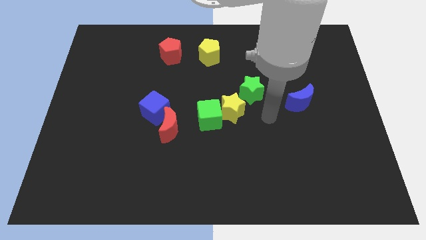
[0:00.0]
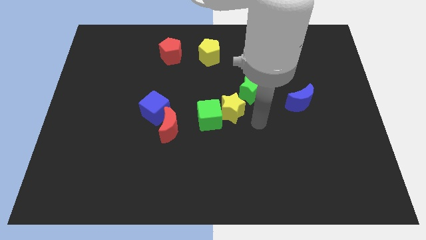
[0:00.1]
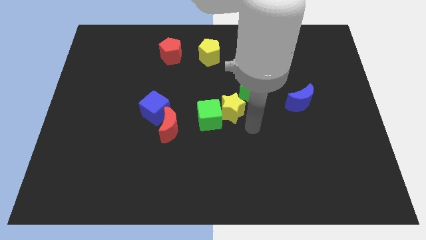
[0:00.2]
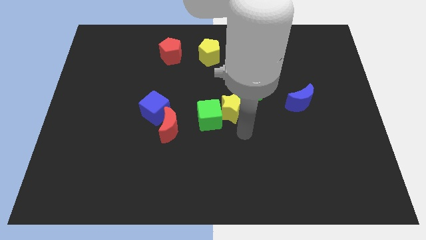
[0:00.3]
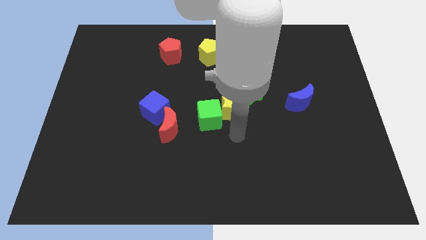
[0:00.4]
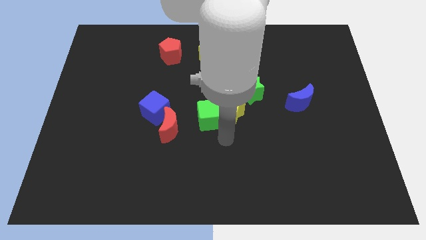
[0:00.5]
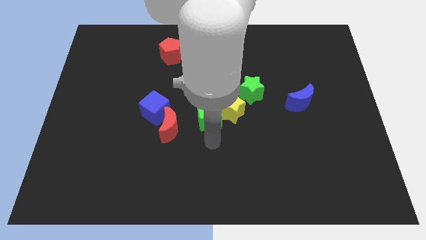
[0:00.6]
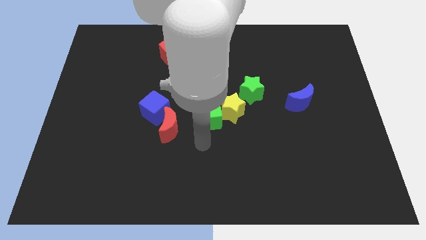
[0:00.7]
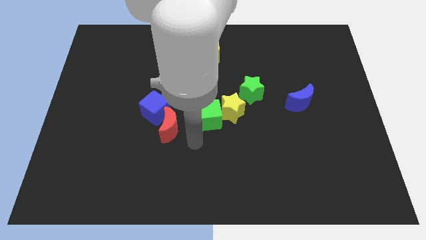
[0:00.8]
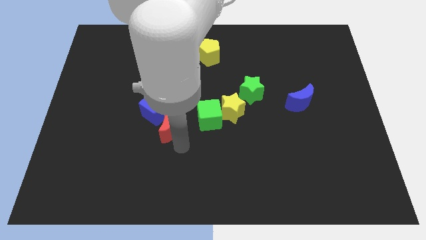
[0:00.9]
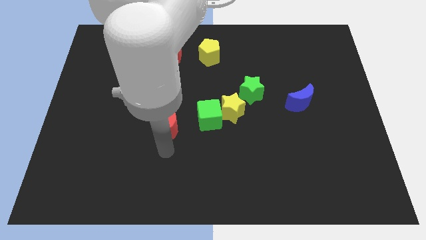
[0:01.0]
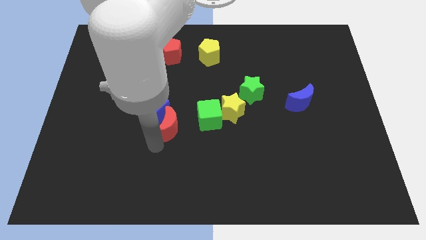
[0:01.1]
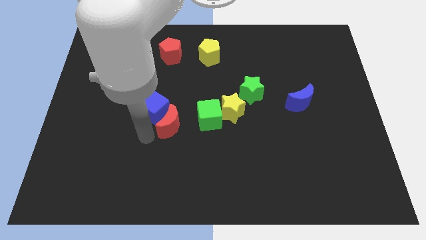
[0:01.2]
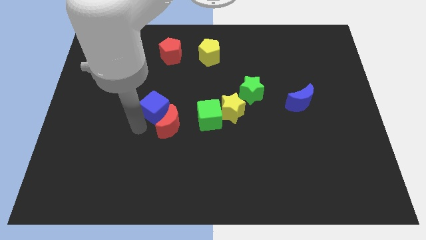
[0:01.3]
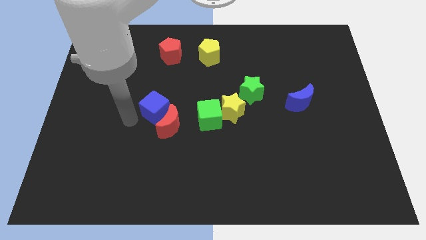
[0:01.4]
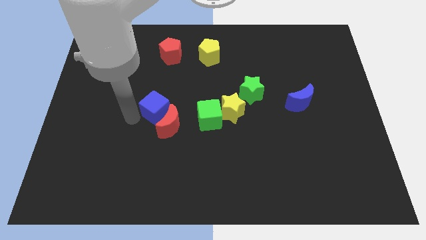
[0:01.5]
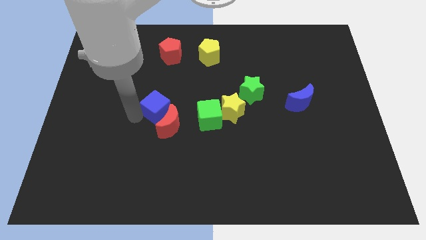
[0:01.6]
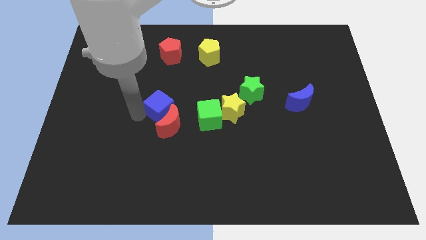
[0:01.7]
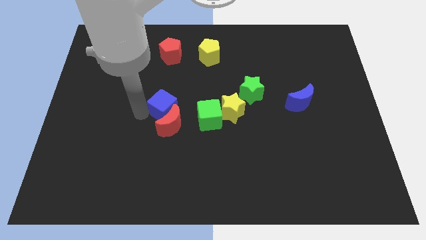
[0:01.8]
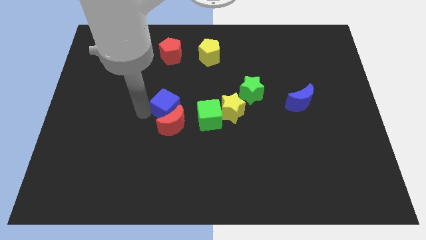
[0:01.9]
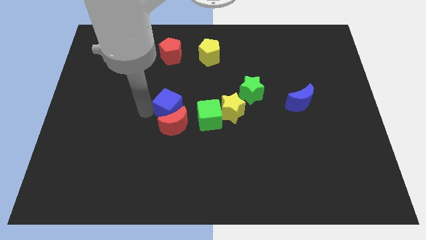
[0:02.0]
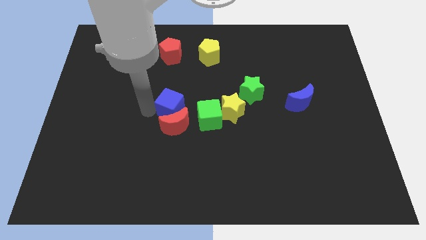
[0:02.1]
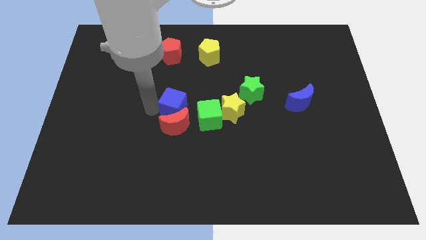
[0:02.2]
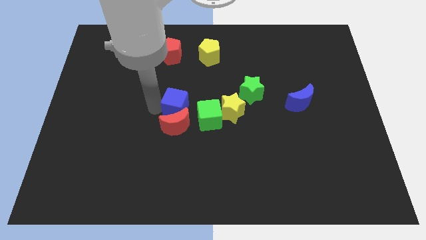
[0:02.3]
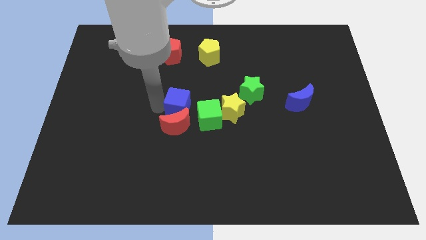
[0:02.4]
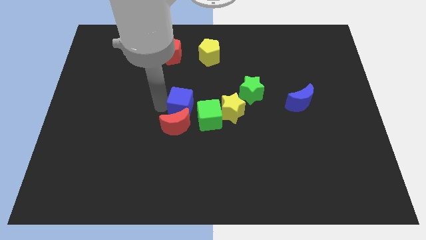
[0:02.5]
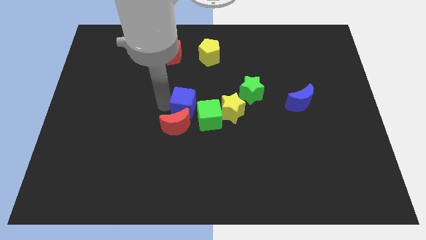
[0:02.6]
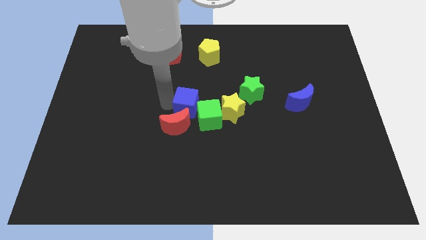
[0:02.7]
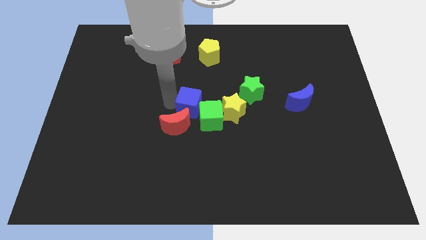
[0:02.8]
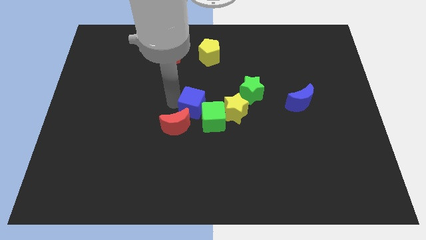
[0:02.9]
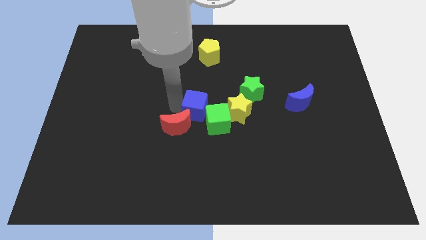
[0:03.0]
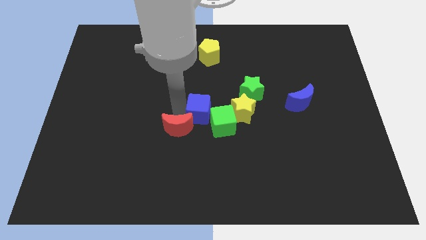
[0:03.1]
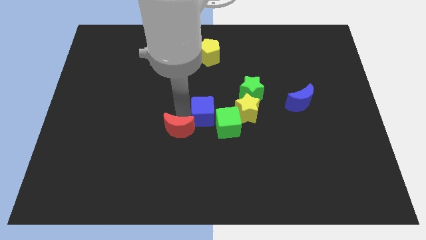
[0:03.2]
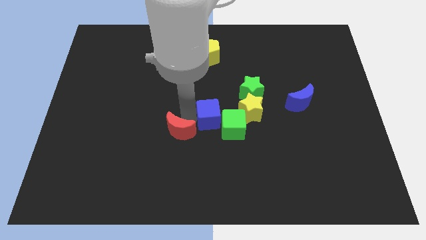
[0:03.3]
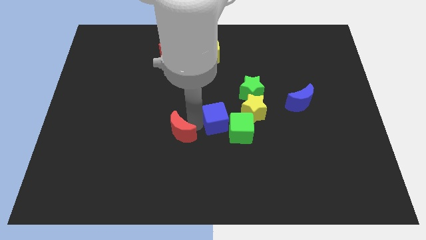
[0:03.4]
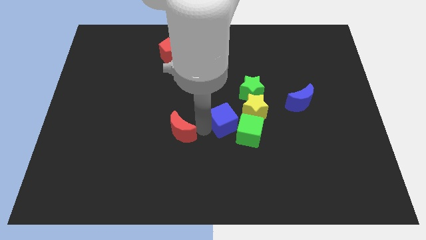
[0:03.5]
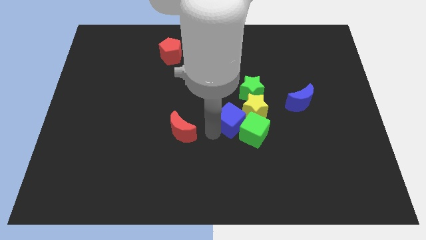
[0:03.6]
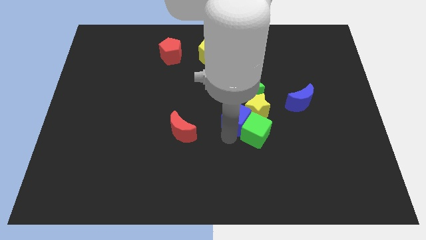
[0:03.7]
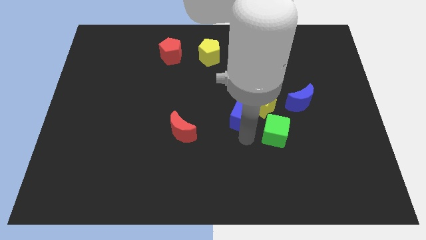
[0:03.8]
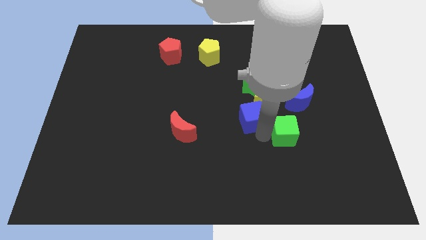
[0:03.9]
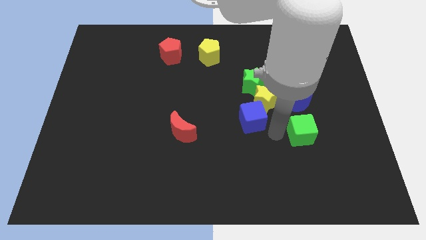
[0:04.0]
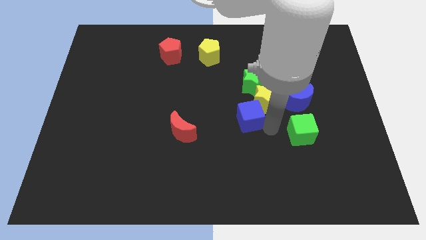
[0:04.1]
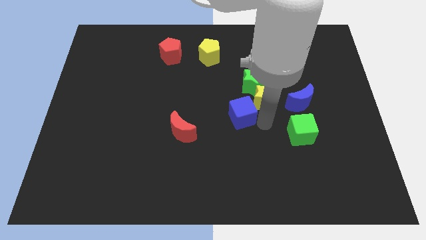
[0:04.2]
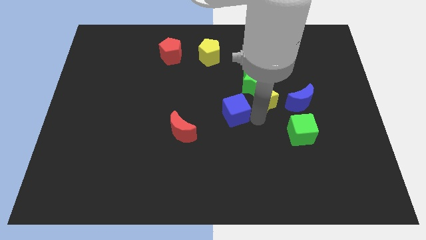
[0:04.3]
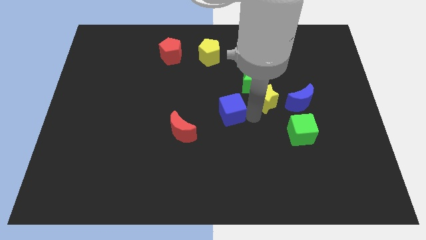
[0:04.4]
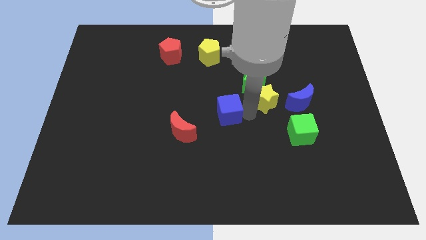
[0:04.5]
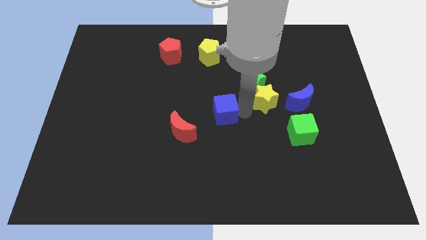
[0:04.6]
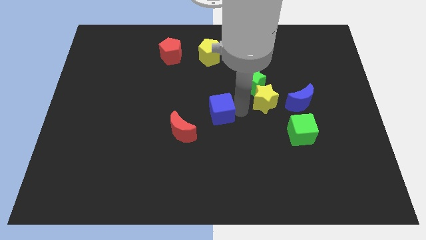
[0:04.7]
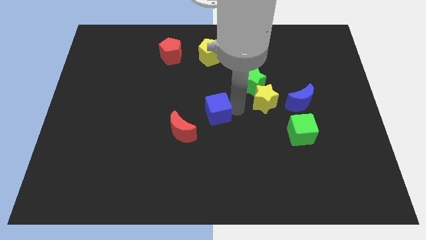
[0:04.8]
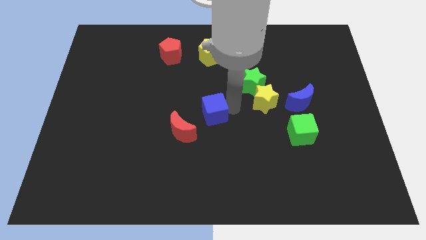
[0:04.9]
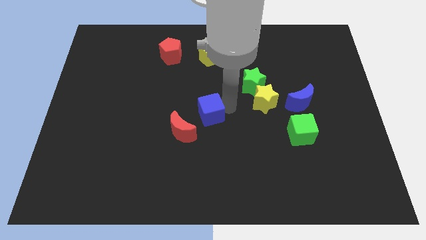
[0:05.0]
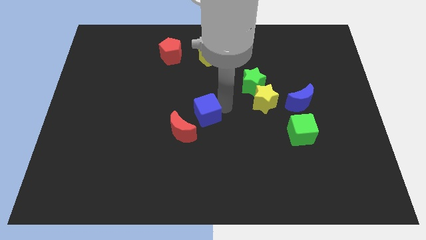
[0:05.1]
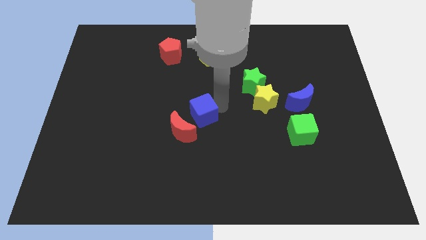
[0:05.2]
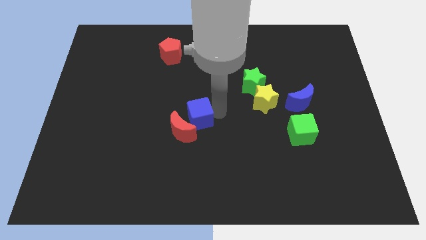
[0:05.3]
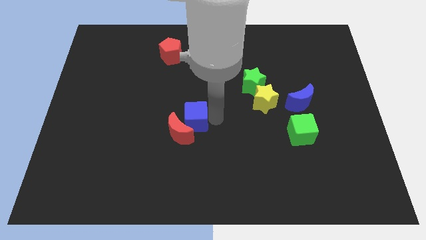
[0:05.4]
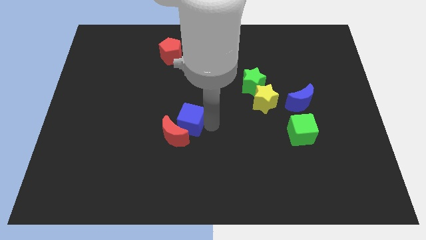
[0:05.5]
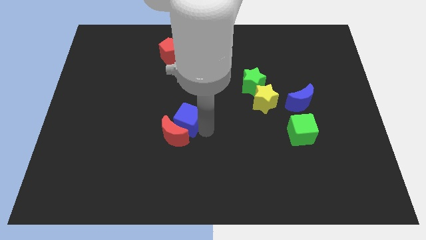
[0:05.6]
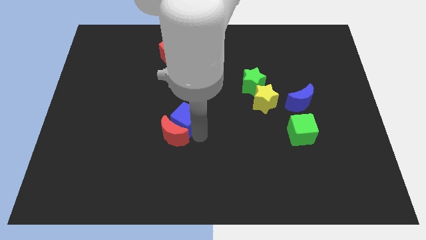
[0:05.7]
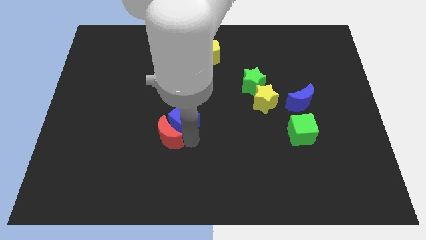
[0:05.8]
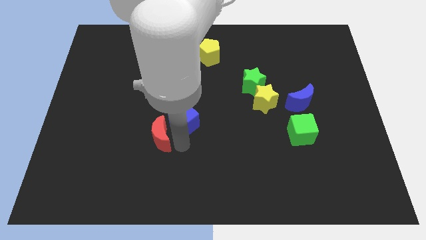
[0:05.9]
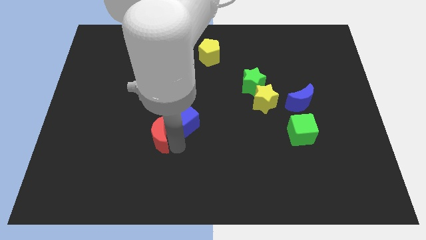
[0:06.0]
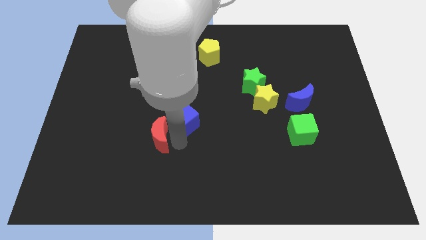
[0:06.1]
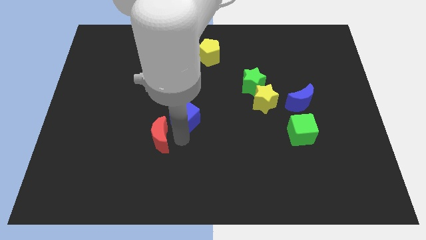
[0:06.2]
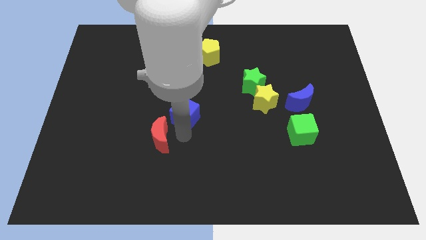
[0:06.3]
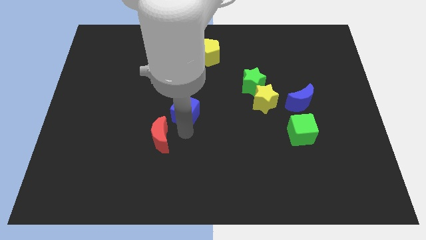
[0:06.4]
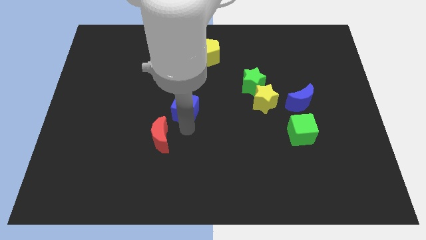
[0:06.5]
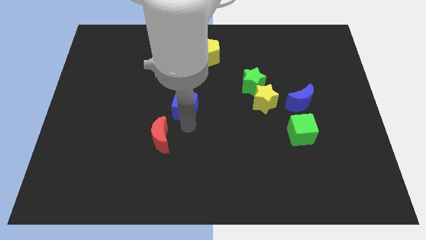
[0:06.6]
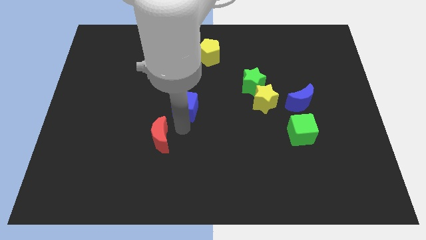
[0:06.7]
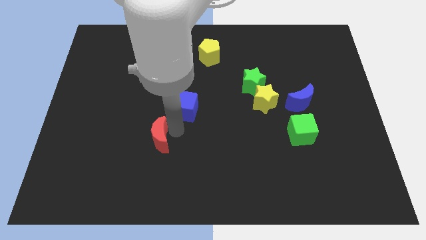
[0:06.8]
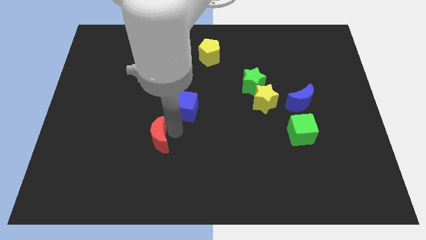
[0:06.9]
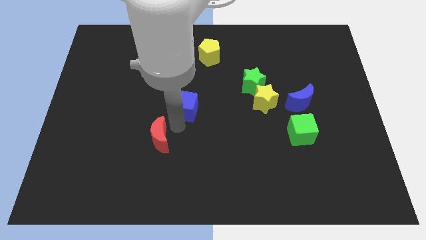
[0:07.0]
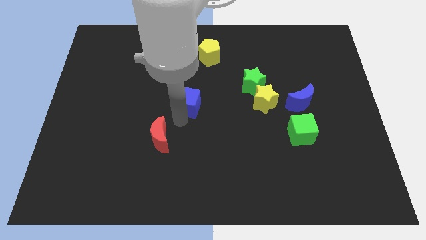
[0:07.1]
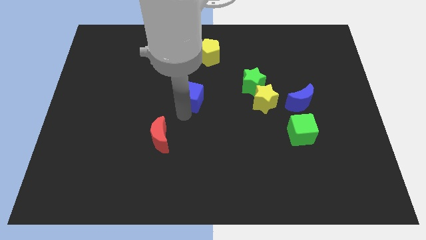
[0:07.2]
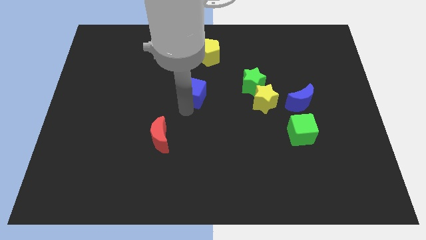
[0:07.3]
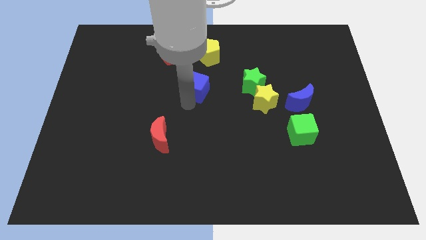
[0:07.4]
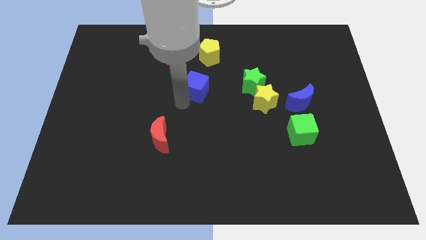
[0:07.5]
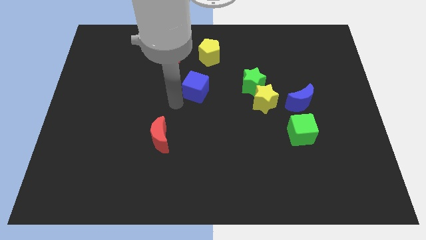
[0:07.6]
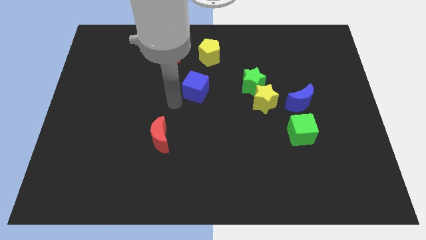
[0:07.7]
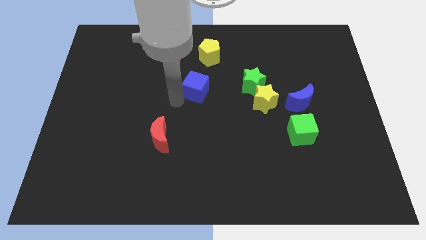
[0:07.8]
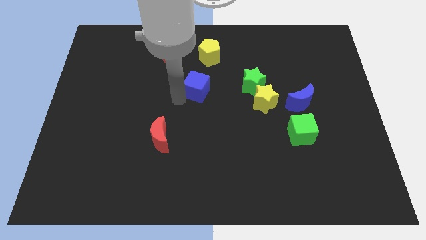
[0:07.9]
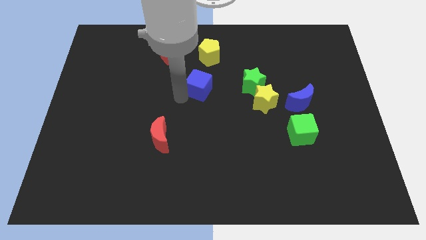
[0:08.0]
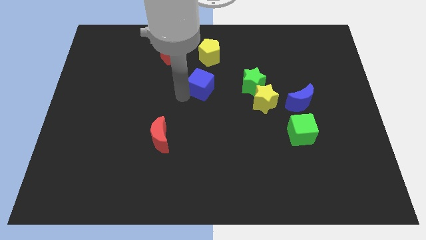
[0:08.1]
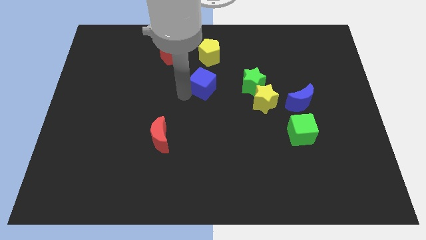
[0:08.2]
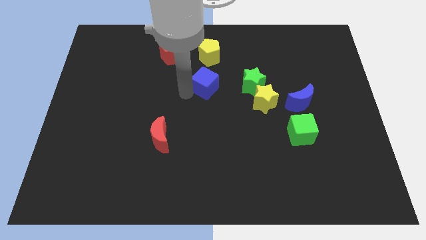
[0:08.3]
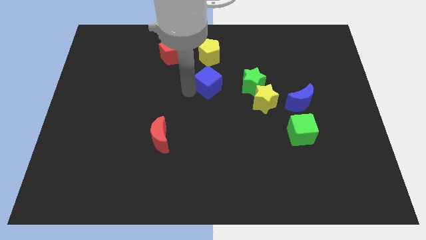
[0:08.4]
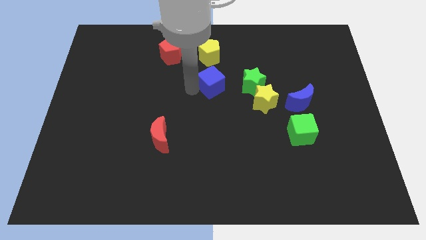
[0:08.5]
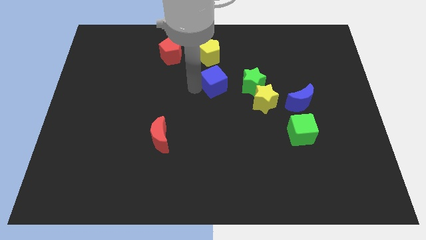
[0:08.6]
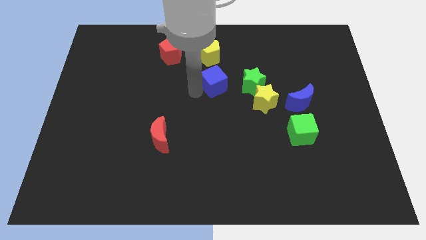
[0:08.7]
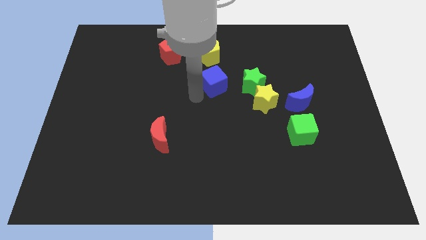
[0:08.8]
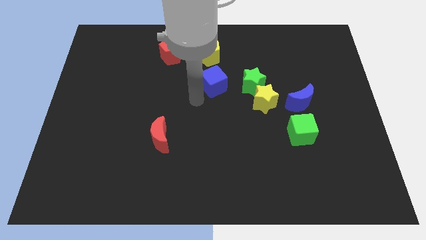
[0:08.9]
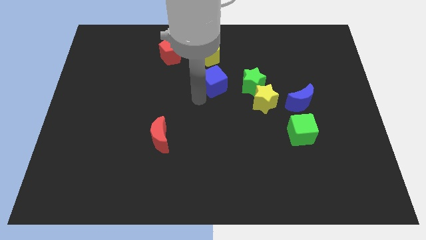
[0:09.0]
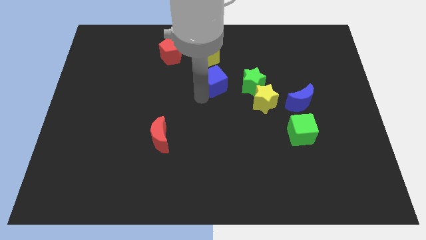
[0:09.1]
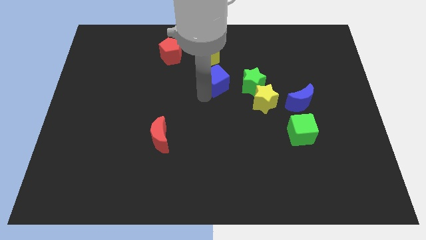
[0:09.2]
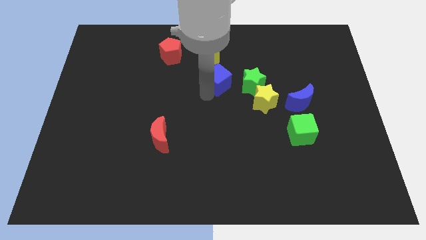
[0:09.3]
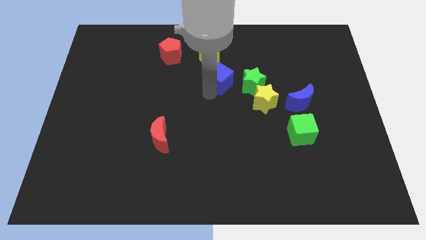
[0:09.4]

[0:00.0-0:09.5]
put the blue cube to the bottom right side of the yellow pentagon
